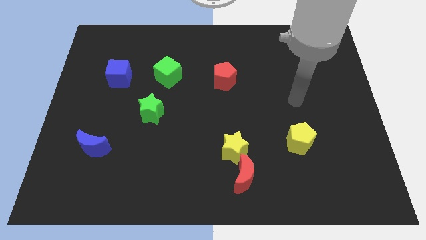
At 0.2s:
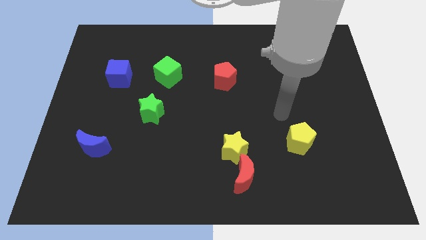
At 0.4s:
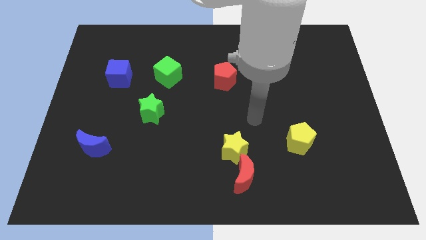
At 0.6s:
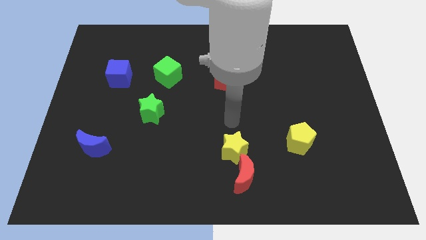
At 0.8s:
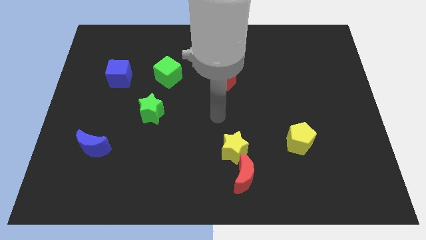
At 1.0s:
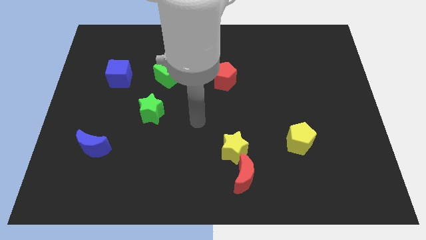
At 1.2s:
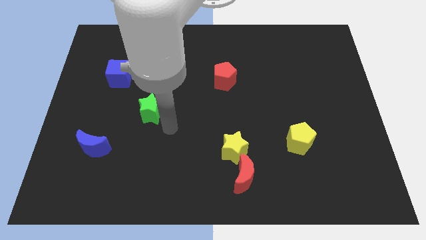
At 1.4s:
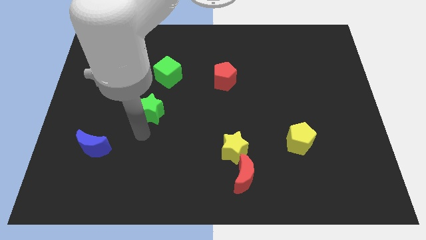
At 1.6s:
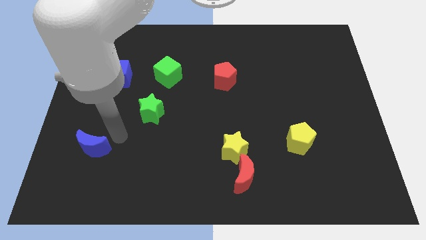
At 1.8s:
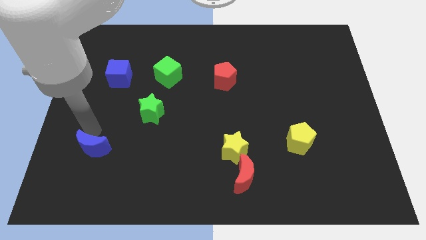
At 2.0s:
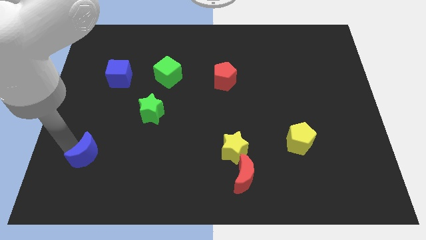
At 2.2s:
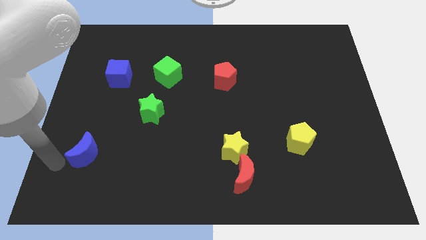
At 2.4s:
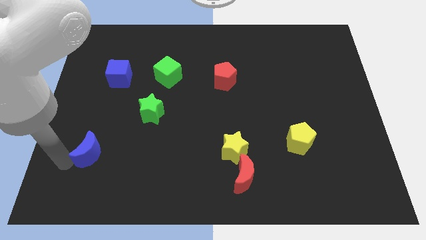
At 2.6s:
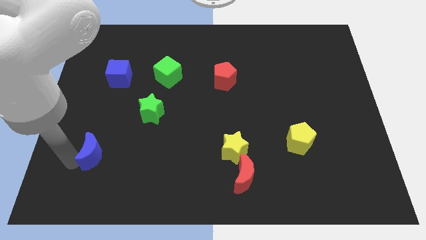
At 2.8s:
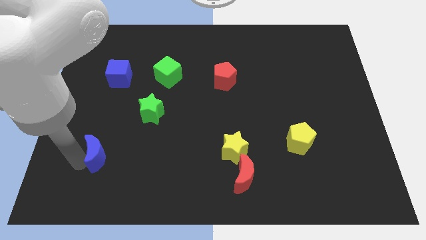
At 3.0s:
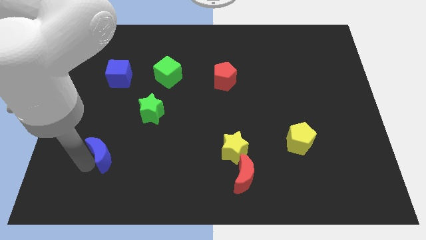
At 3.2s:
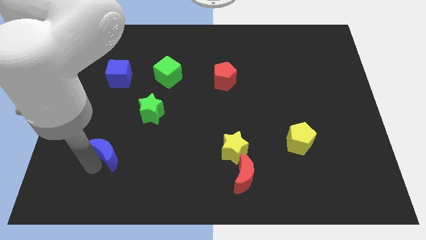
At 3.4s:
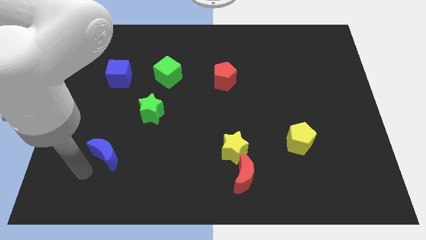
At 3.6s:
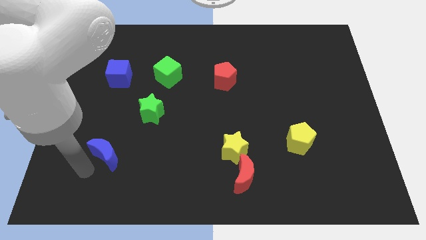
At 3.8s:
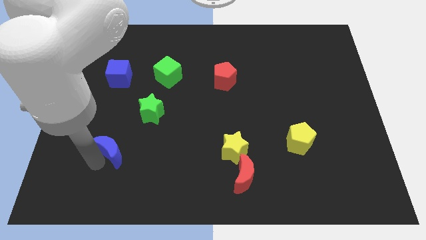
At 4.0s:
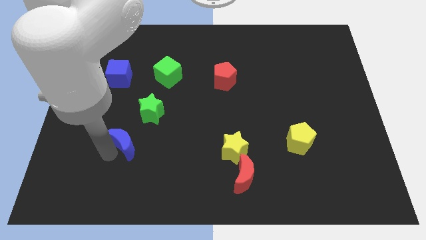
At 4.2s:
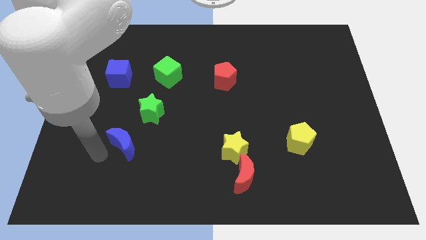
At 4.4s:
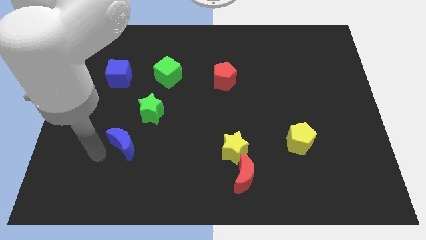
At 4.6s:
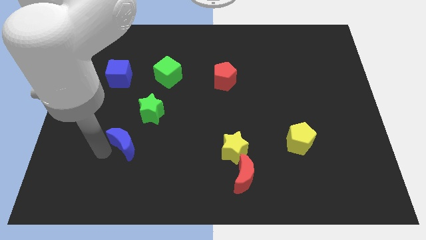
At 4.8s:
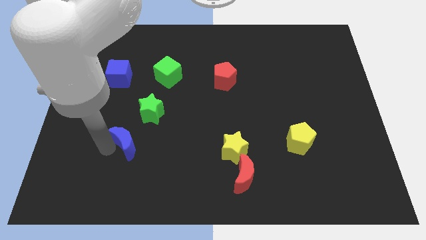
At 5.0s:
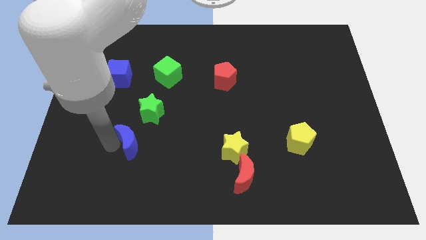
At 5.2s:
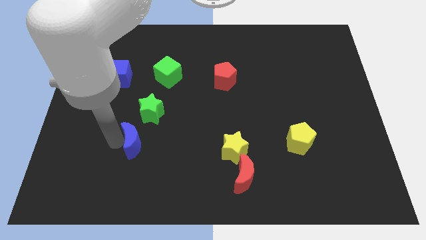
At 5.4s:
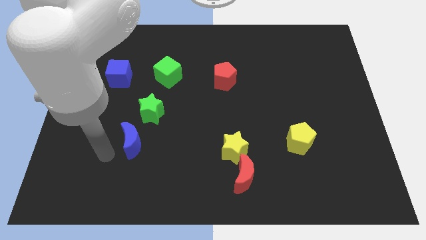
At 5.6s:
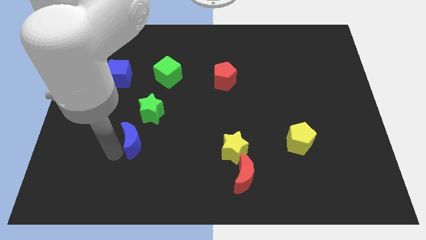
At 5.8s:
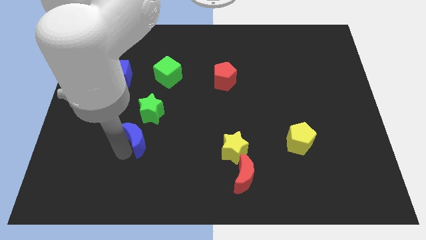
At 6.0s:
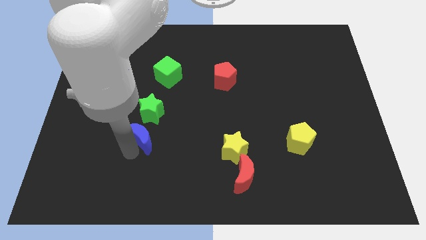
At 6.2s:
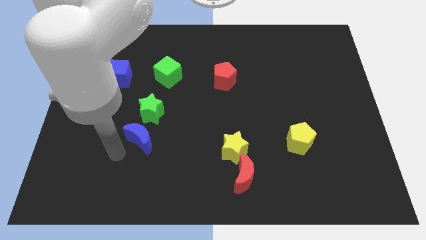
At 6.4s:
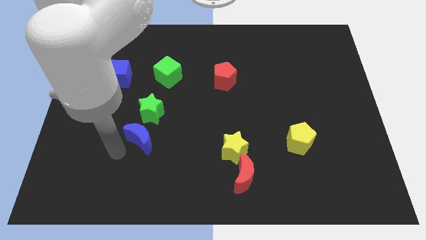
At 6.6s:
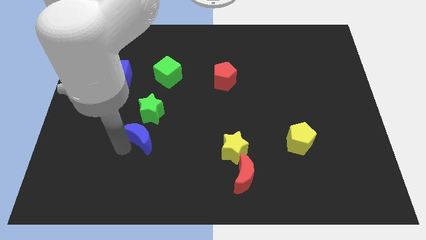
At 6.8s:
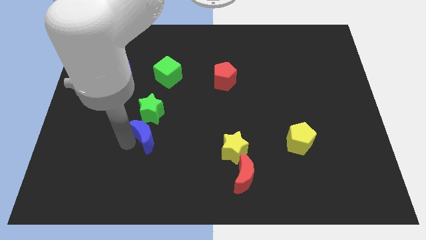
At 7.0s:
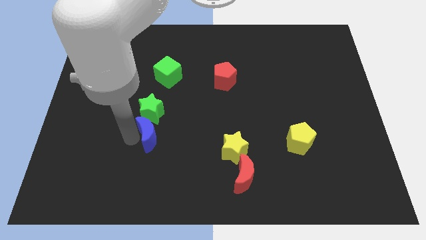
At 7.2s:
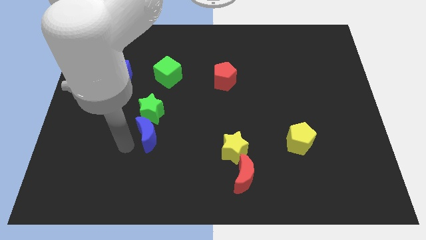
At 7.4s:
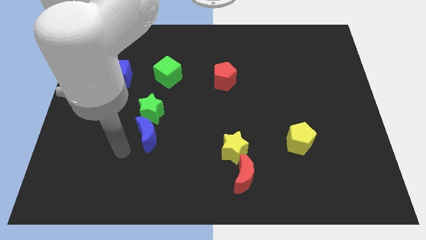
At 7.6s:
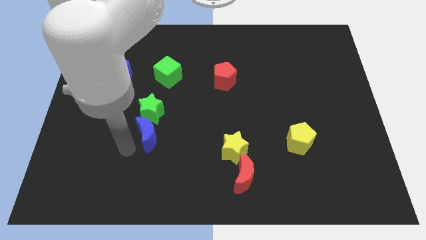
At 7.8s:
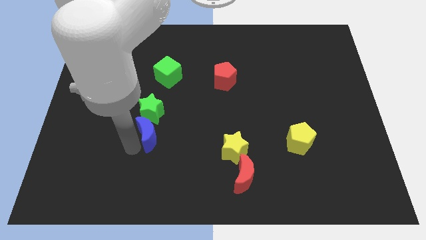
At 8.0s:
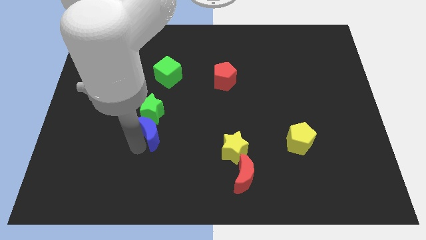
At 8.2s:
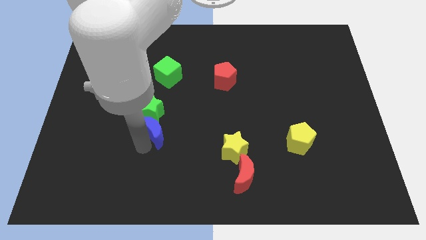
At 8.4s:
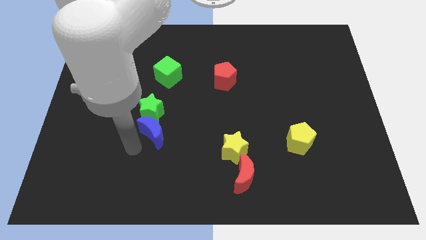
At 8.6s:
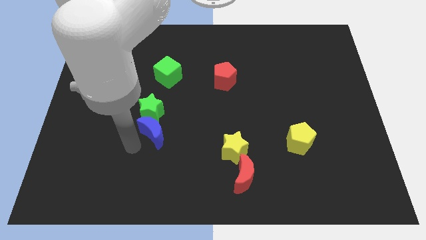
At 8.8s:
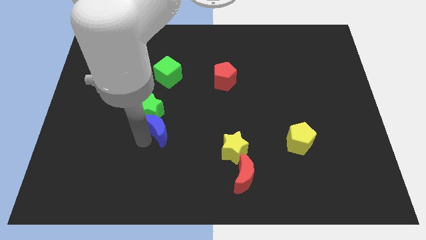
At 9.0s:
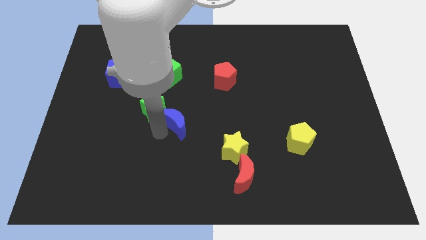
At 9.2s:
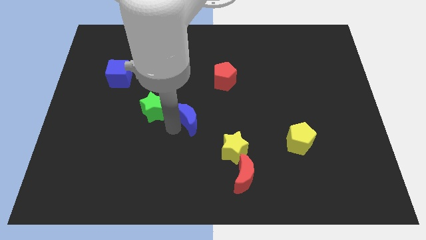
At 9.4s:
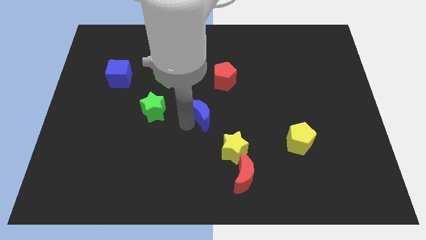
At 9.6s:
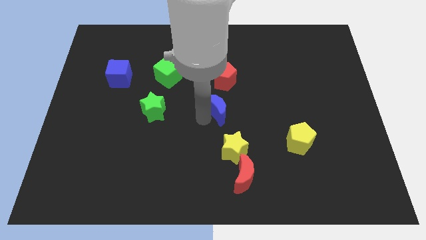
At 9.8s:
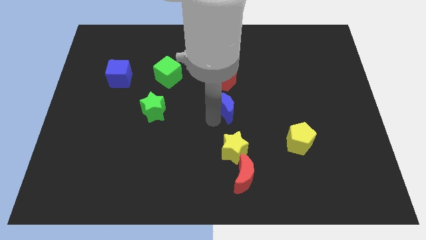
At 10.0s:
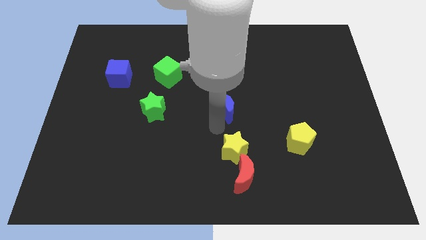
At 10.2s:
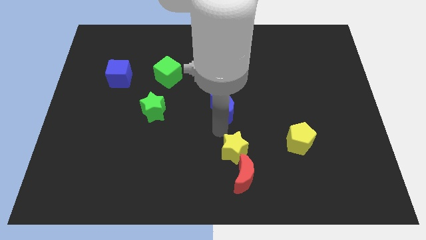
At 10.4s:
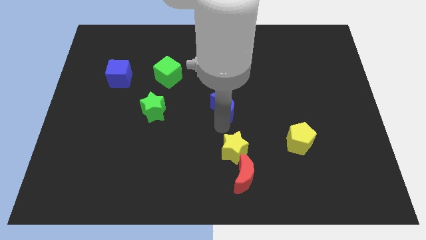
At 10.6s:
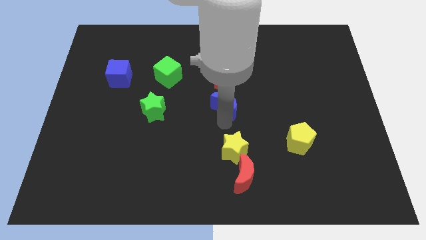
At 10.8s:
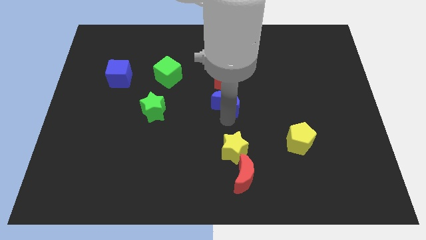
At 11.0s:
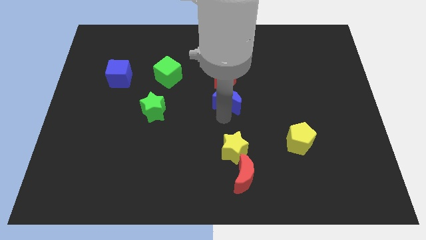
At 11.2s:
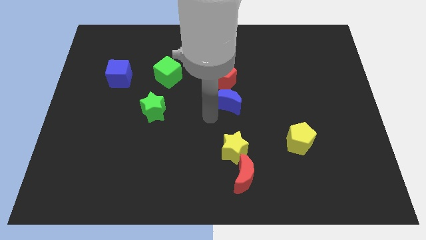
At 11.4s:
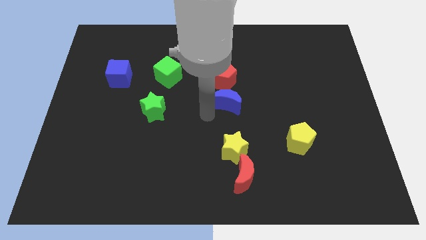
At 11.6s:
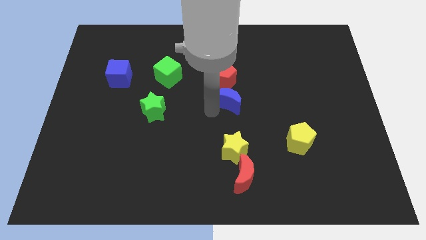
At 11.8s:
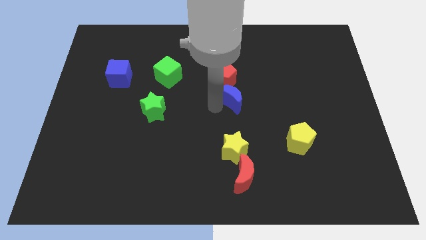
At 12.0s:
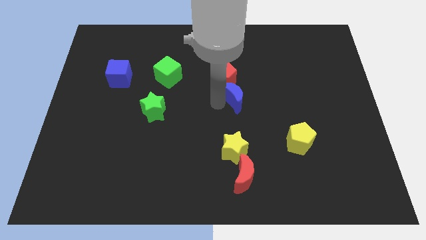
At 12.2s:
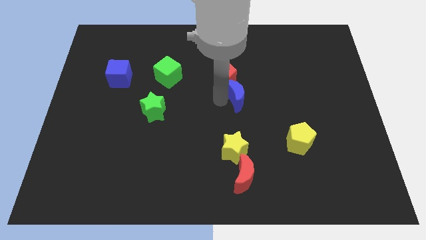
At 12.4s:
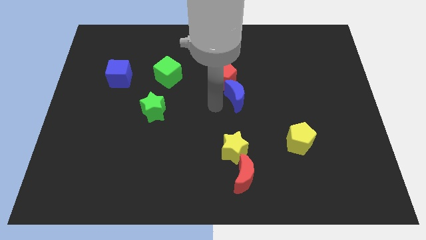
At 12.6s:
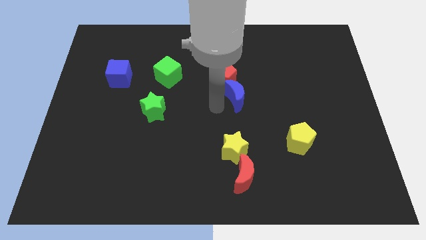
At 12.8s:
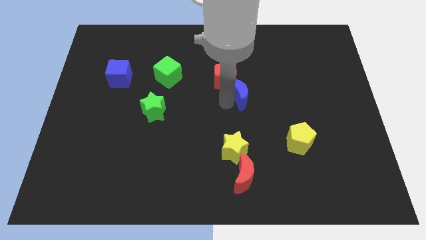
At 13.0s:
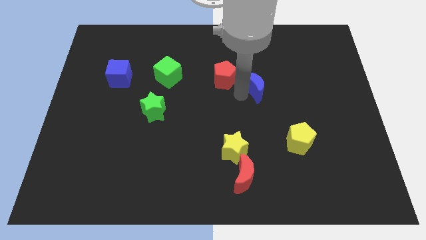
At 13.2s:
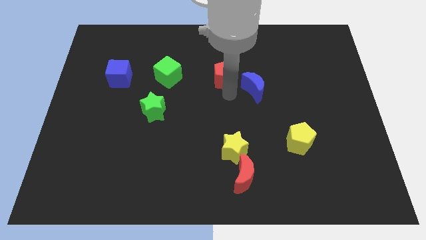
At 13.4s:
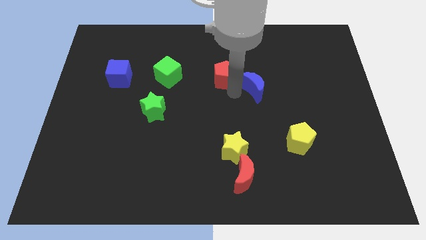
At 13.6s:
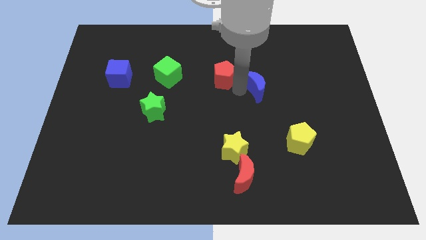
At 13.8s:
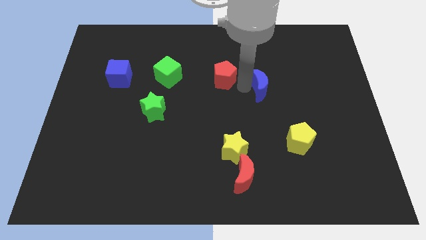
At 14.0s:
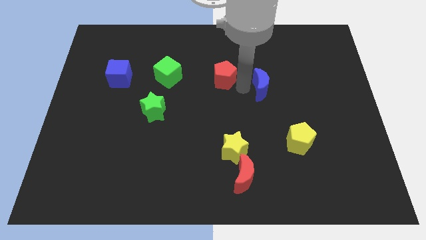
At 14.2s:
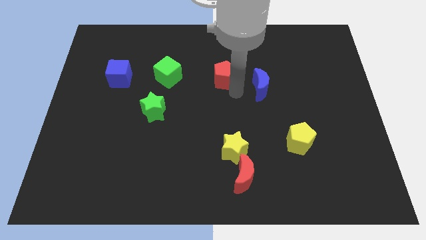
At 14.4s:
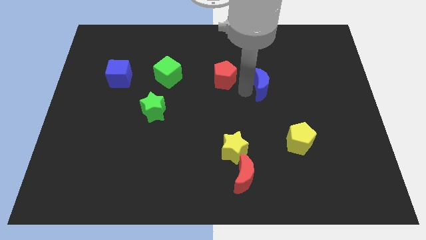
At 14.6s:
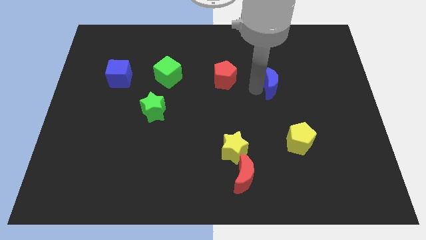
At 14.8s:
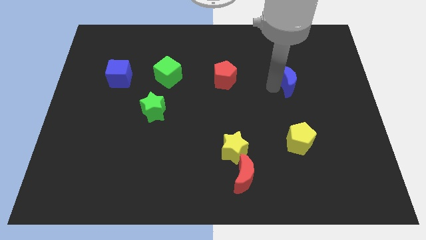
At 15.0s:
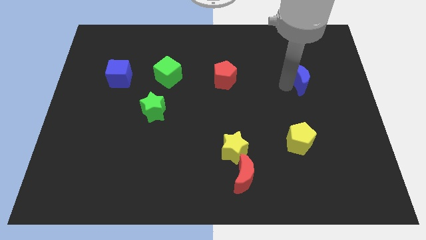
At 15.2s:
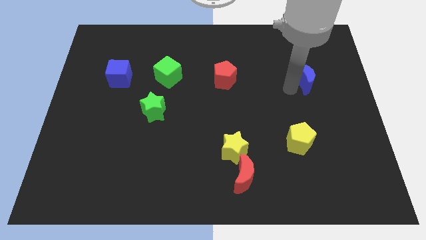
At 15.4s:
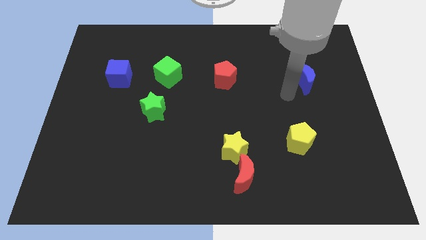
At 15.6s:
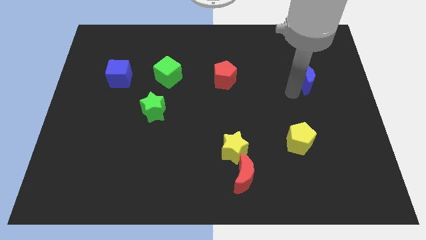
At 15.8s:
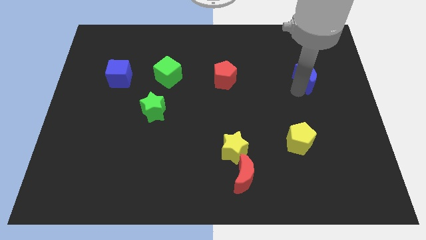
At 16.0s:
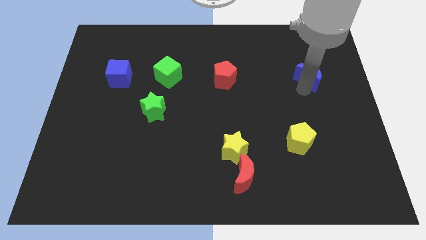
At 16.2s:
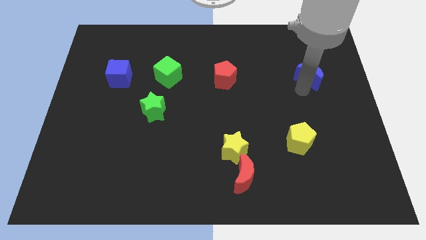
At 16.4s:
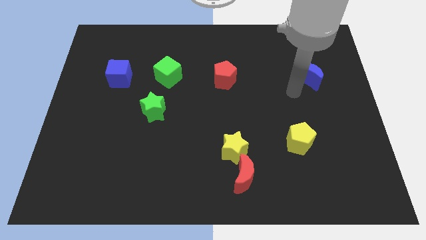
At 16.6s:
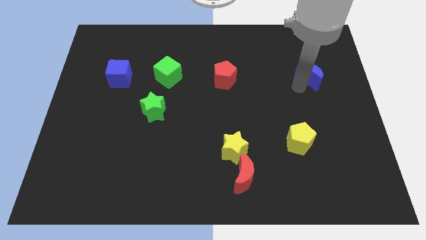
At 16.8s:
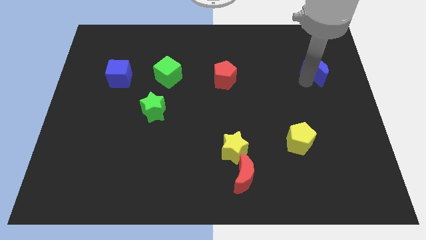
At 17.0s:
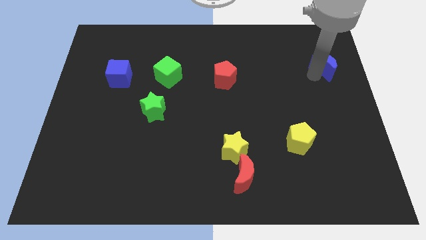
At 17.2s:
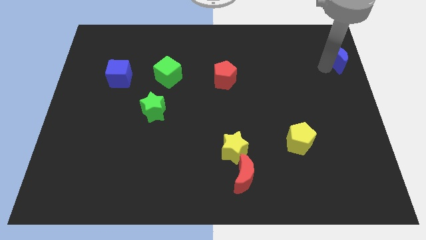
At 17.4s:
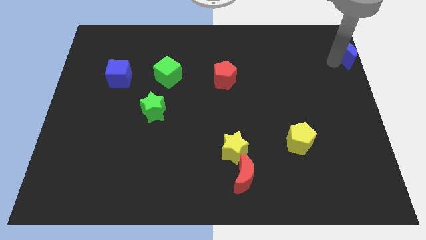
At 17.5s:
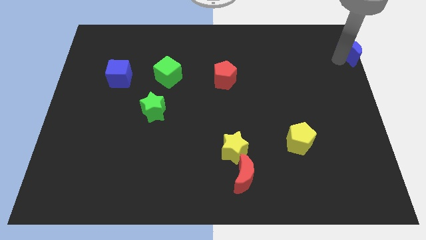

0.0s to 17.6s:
put the blue moon to the top right of the board
